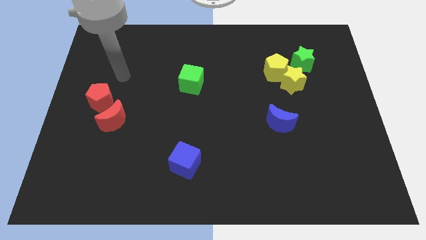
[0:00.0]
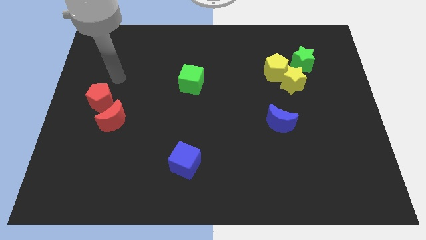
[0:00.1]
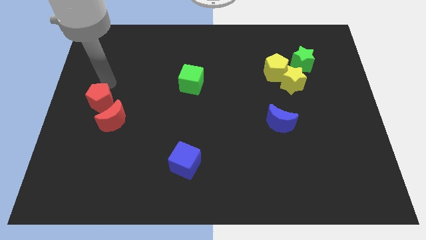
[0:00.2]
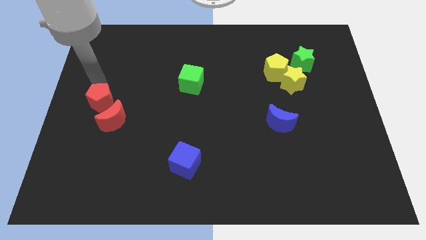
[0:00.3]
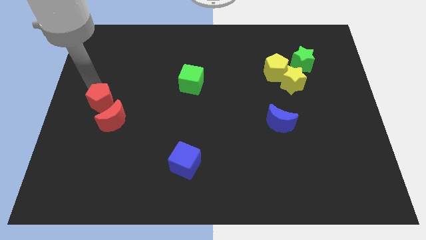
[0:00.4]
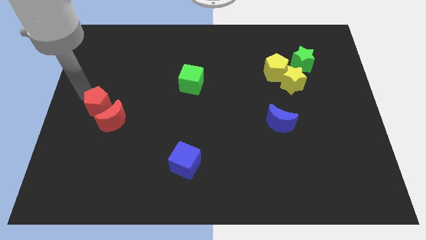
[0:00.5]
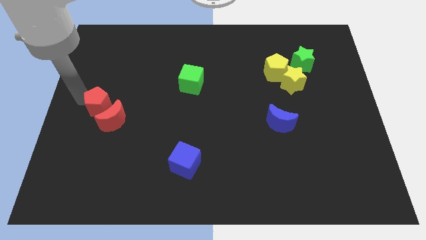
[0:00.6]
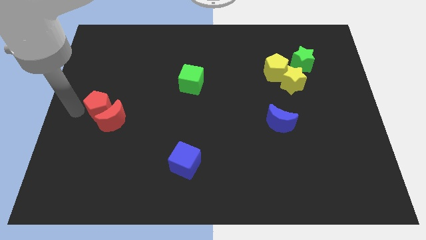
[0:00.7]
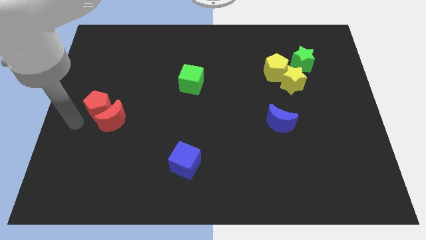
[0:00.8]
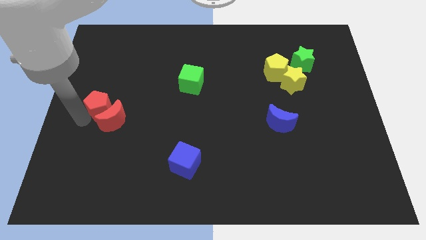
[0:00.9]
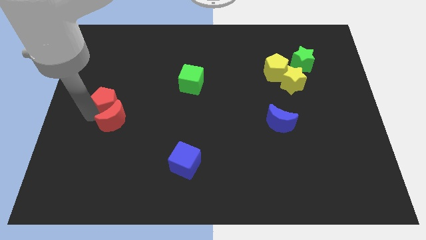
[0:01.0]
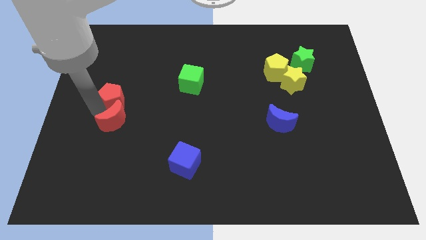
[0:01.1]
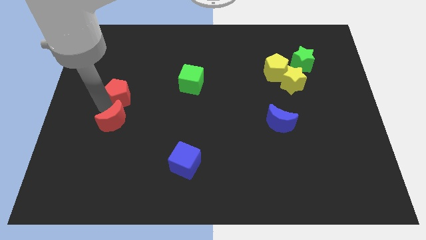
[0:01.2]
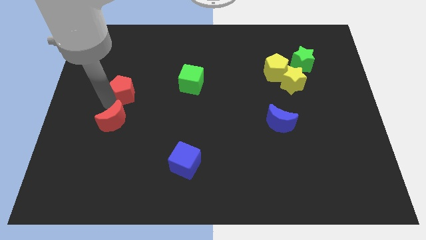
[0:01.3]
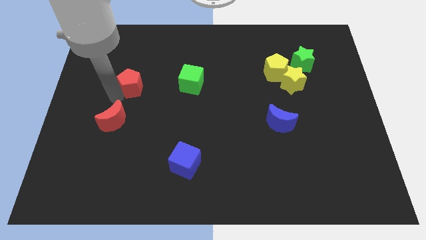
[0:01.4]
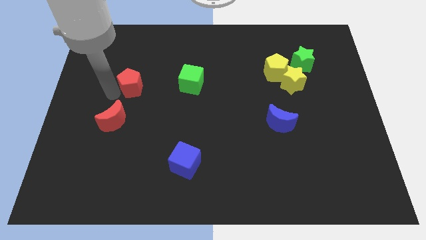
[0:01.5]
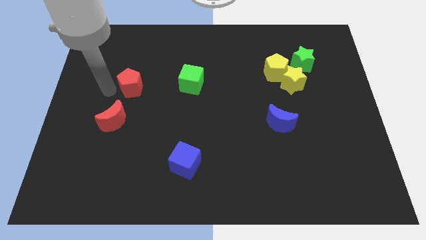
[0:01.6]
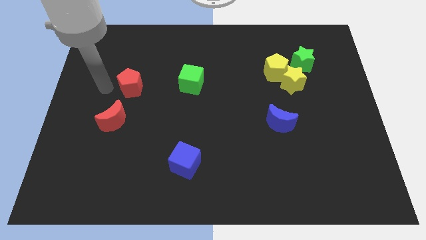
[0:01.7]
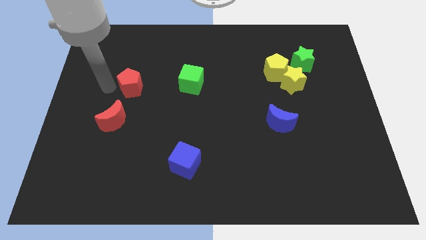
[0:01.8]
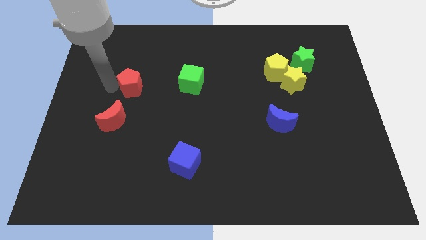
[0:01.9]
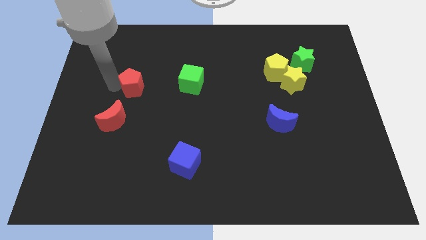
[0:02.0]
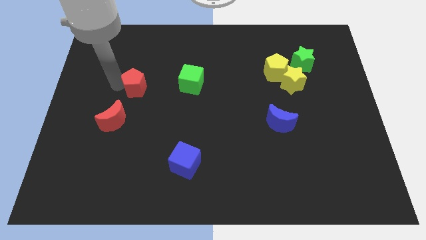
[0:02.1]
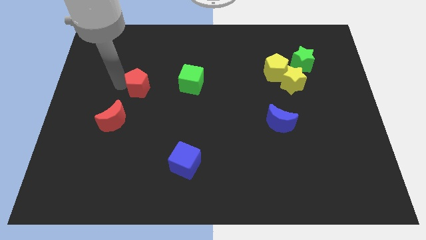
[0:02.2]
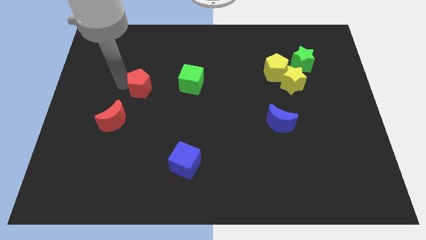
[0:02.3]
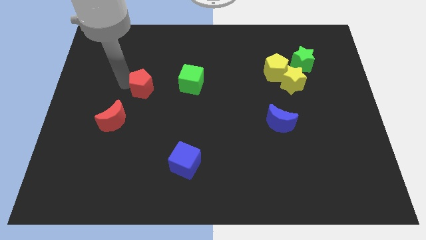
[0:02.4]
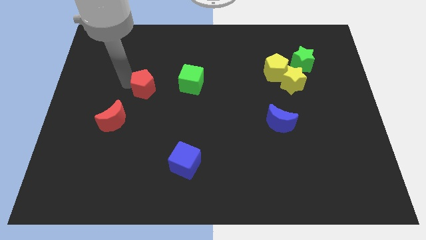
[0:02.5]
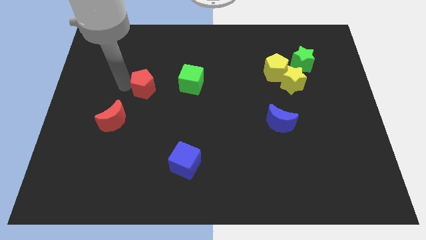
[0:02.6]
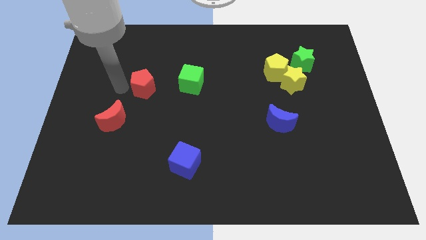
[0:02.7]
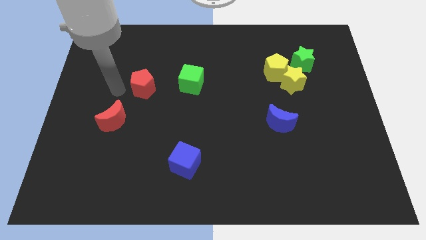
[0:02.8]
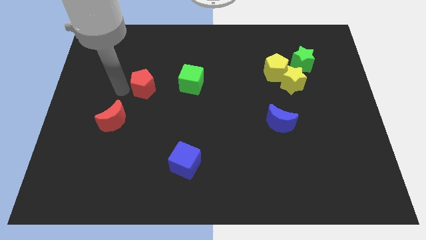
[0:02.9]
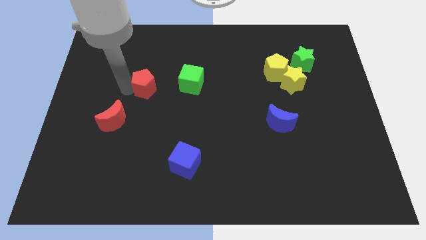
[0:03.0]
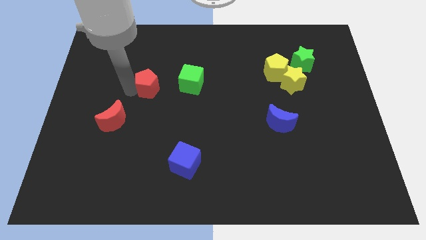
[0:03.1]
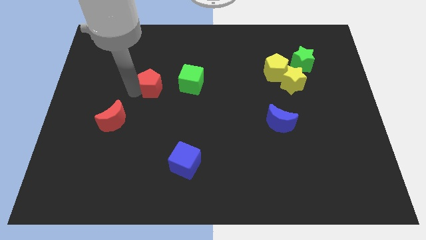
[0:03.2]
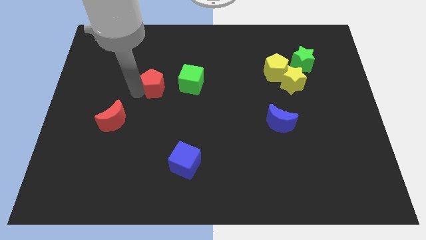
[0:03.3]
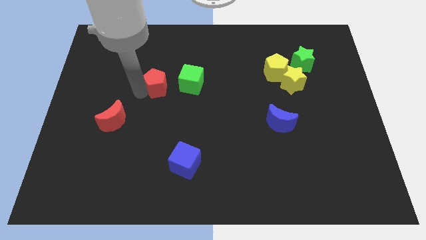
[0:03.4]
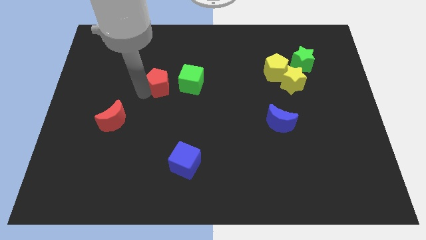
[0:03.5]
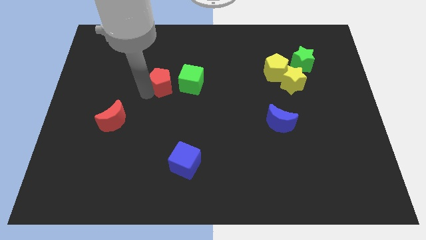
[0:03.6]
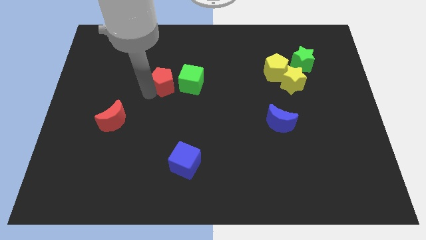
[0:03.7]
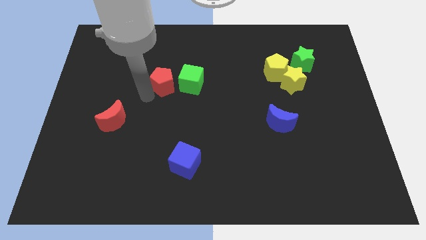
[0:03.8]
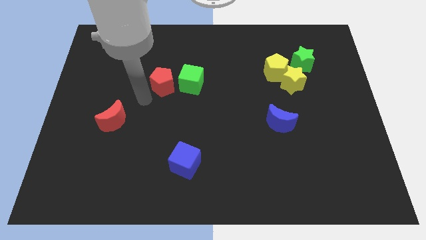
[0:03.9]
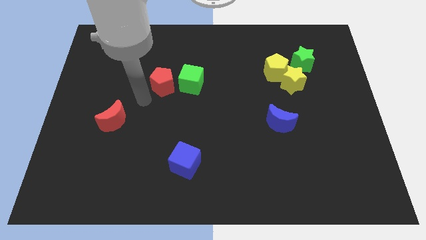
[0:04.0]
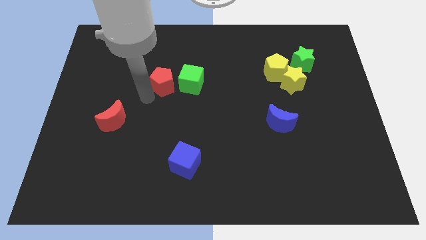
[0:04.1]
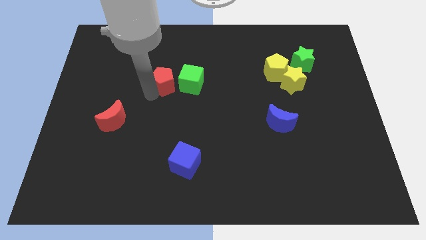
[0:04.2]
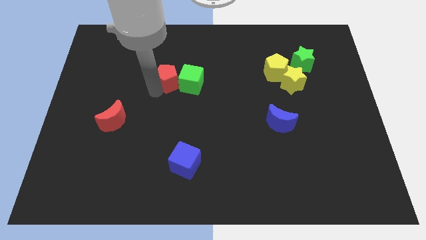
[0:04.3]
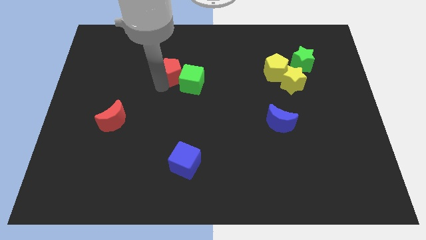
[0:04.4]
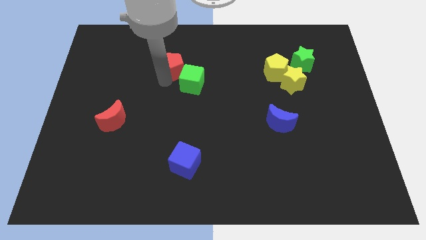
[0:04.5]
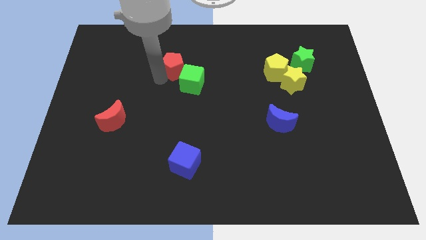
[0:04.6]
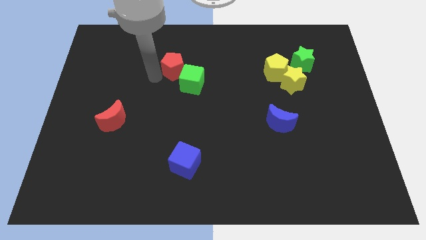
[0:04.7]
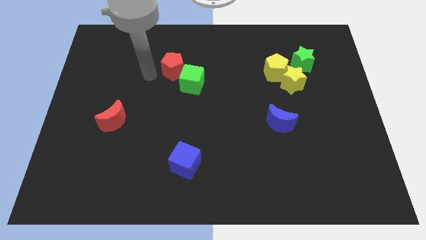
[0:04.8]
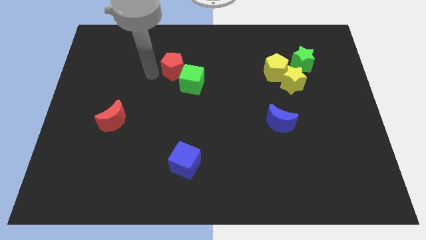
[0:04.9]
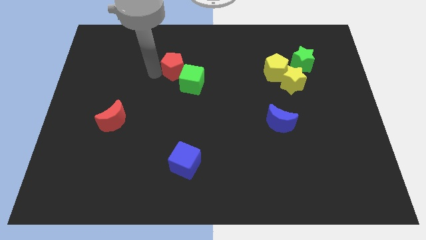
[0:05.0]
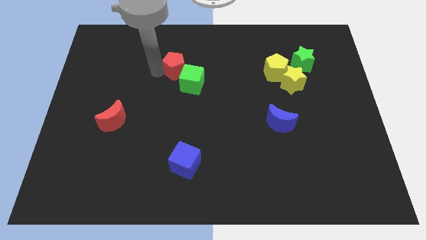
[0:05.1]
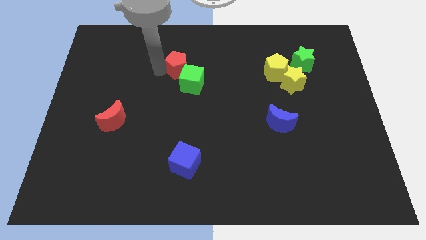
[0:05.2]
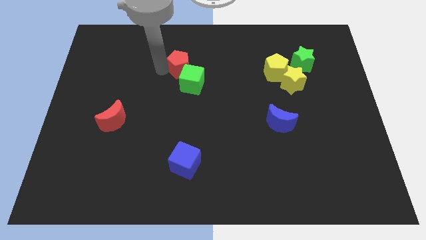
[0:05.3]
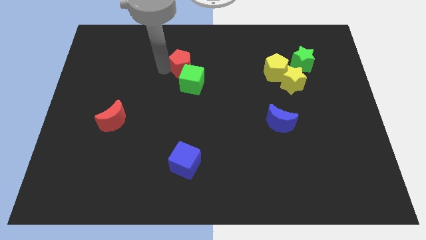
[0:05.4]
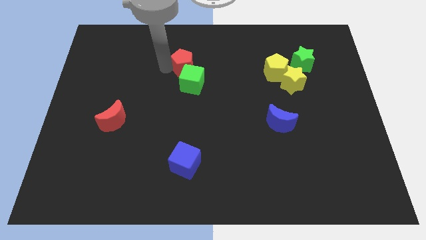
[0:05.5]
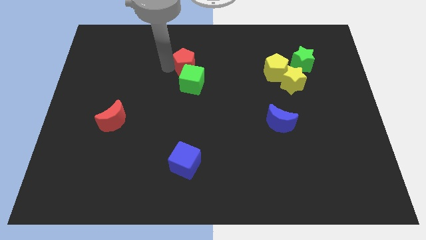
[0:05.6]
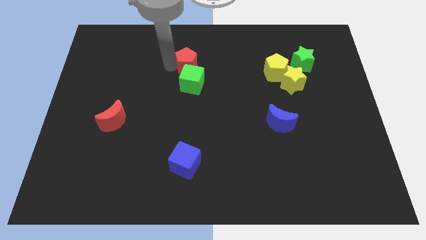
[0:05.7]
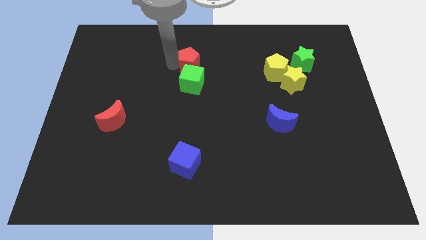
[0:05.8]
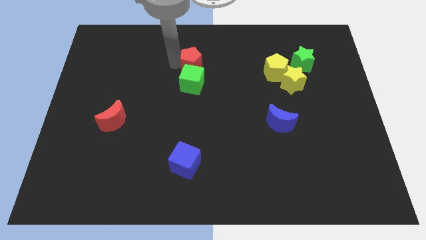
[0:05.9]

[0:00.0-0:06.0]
push the red pentagon to the top right side of the green cube

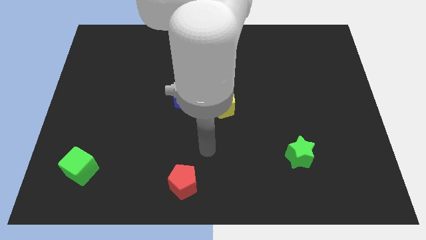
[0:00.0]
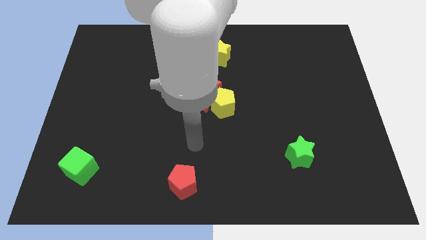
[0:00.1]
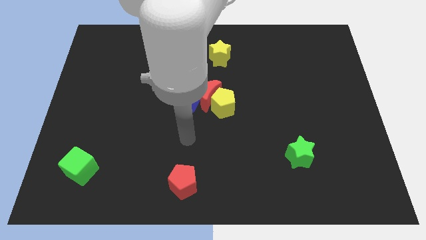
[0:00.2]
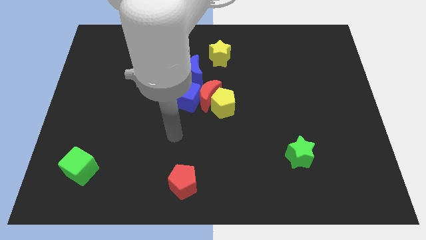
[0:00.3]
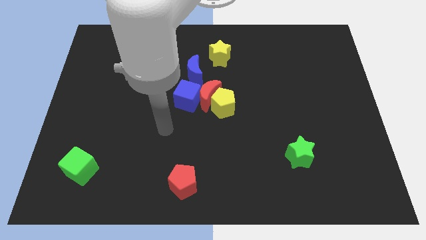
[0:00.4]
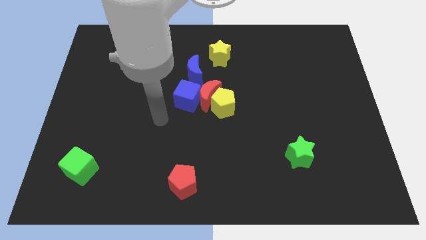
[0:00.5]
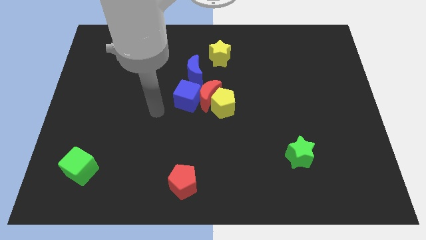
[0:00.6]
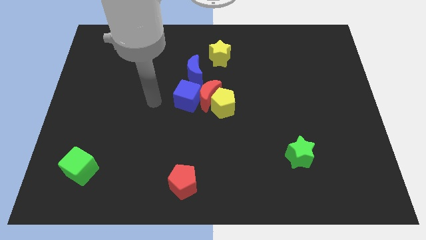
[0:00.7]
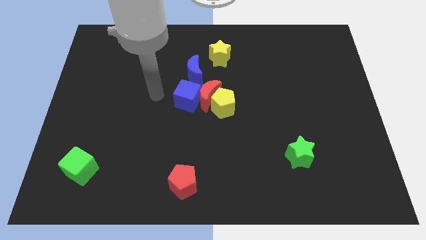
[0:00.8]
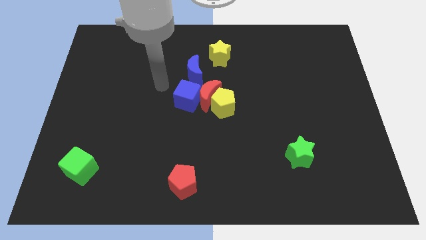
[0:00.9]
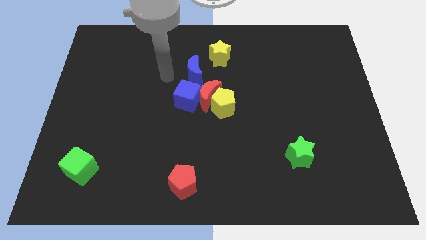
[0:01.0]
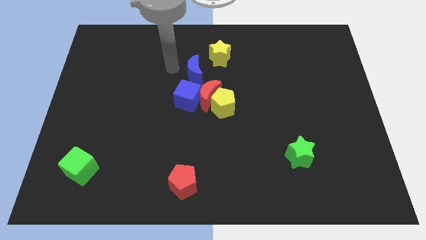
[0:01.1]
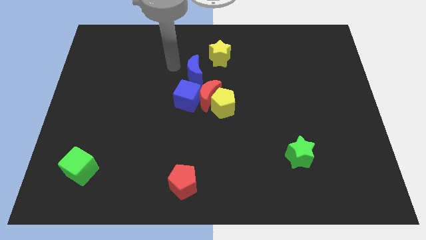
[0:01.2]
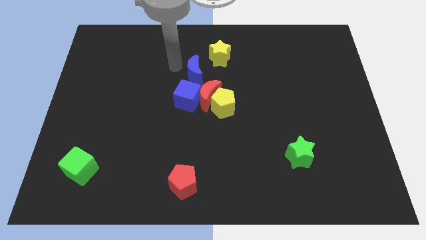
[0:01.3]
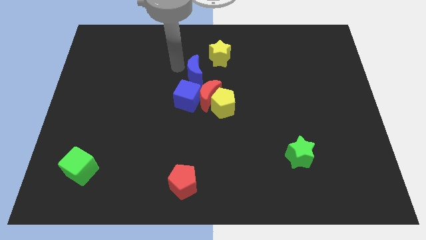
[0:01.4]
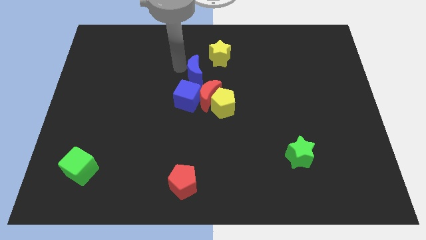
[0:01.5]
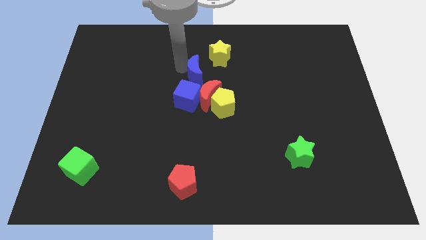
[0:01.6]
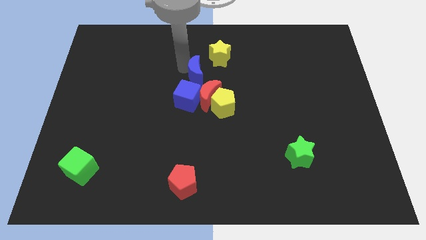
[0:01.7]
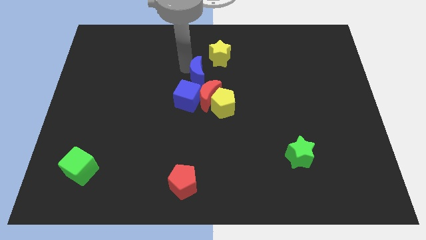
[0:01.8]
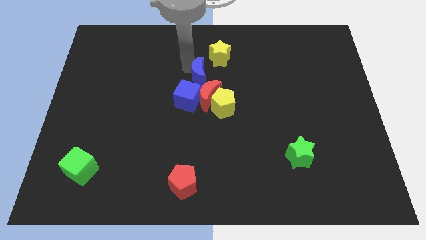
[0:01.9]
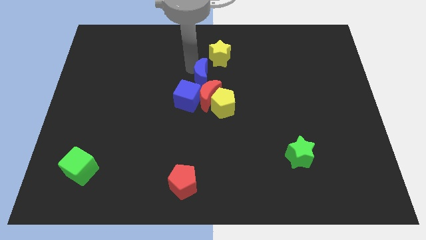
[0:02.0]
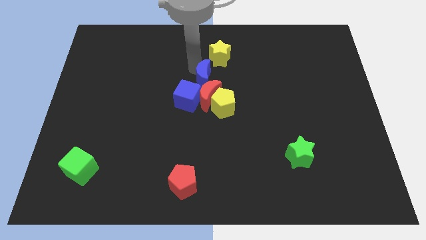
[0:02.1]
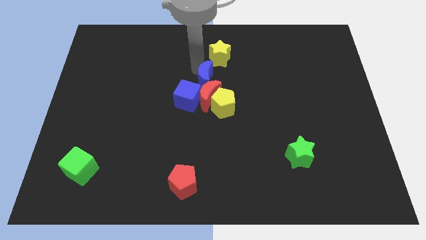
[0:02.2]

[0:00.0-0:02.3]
move the blue moon to the top right of the red moon
